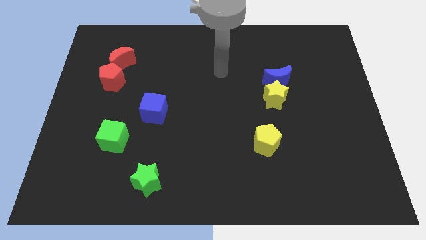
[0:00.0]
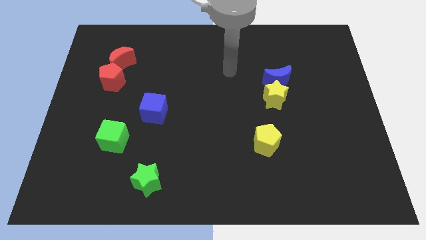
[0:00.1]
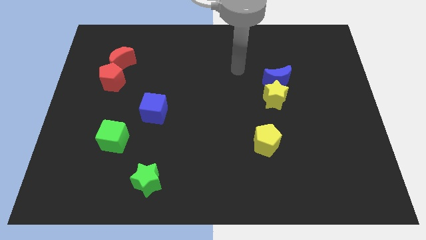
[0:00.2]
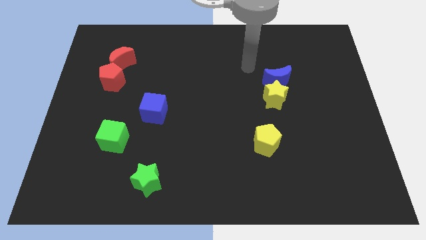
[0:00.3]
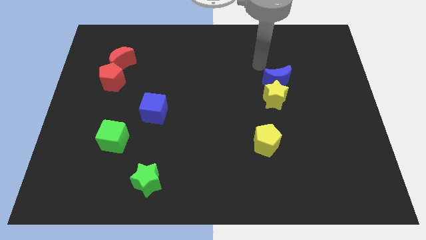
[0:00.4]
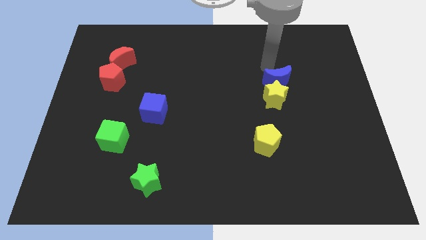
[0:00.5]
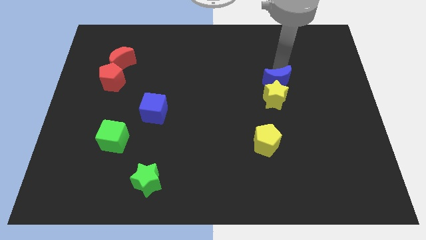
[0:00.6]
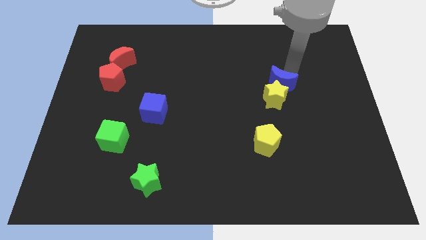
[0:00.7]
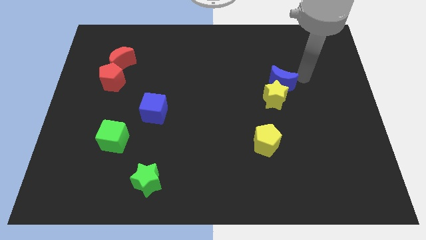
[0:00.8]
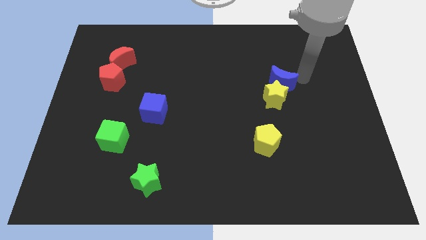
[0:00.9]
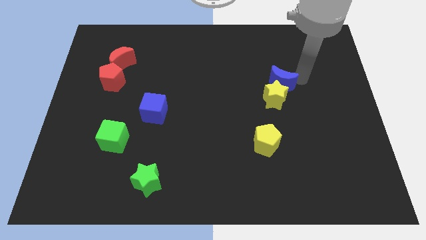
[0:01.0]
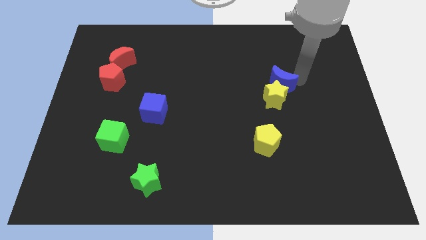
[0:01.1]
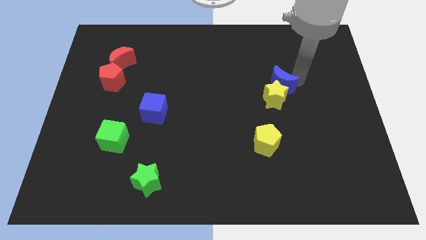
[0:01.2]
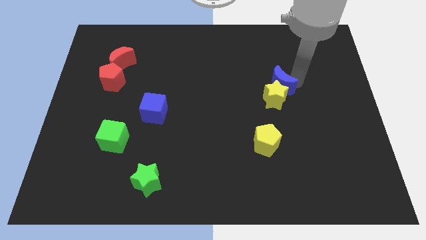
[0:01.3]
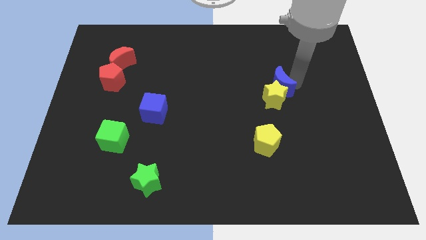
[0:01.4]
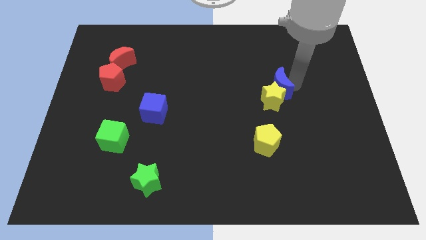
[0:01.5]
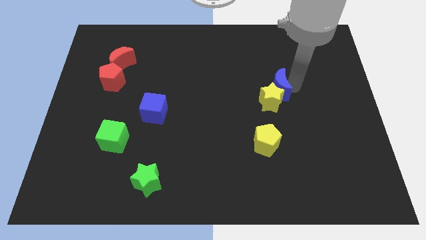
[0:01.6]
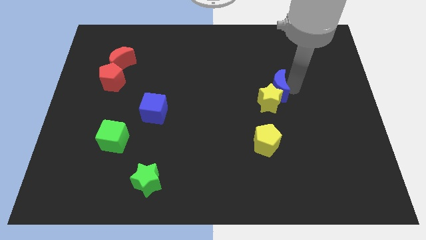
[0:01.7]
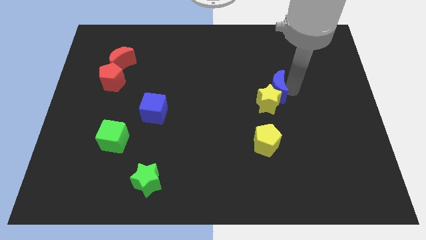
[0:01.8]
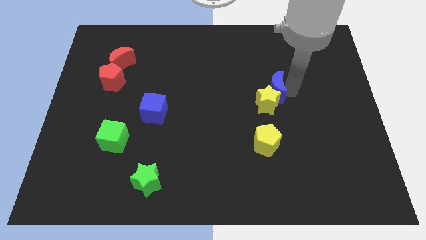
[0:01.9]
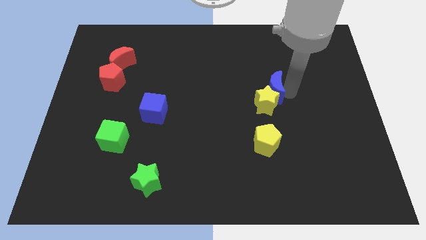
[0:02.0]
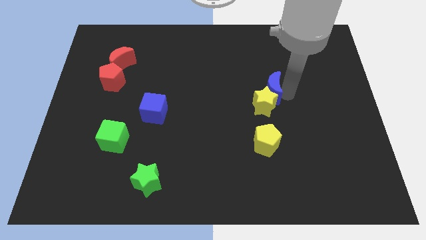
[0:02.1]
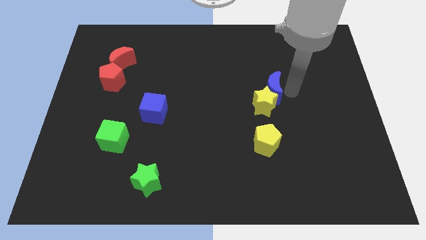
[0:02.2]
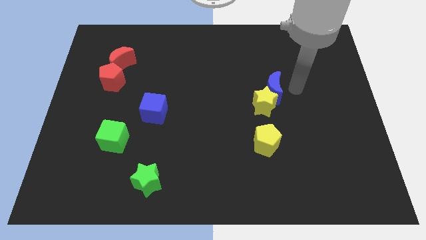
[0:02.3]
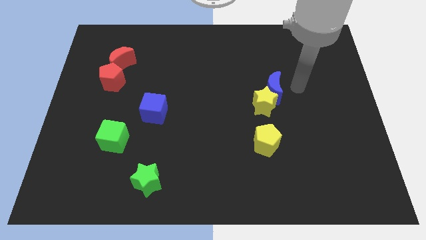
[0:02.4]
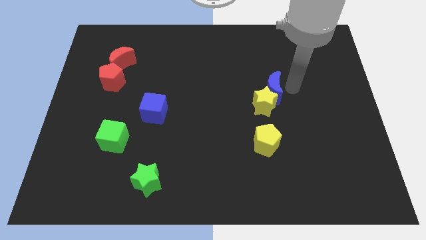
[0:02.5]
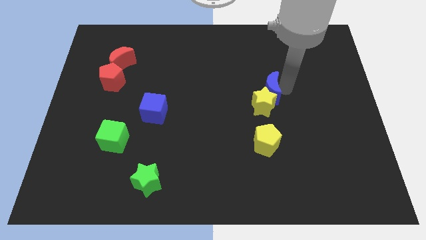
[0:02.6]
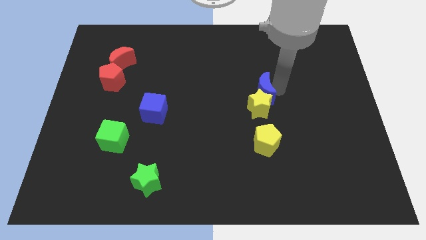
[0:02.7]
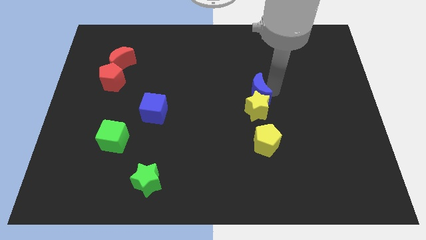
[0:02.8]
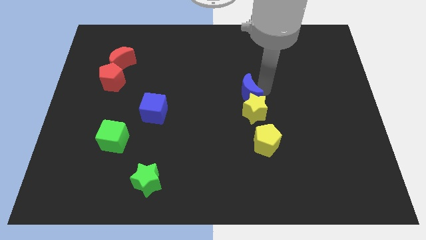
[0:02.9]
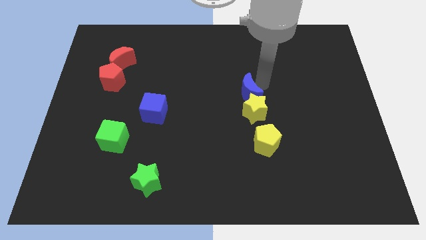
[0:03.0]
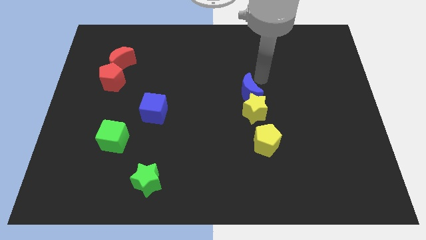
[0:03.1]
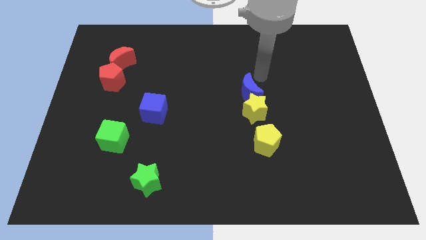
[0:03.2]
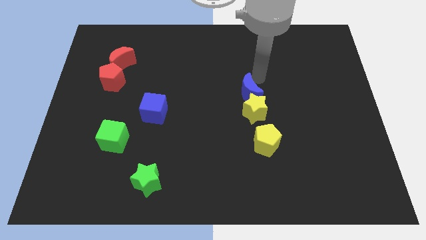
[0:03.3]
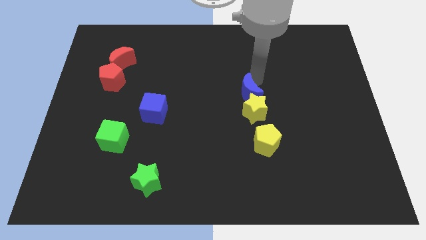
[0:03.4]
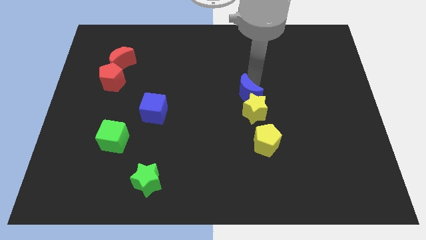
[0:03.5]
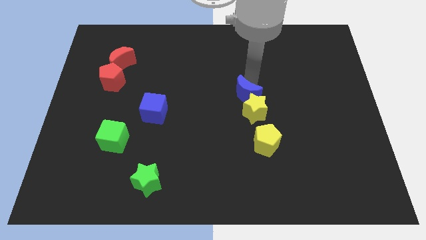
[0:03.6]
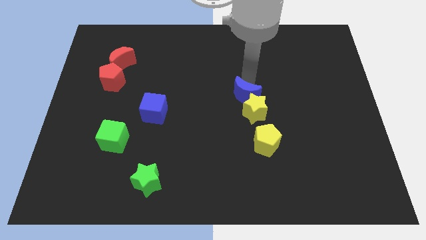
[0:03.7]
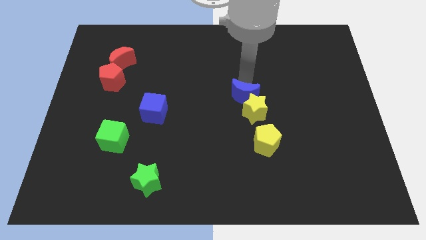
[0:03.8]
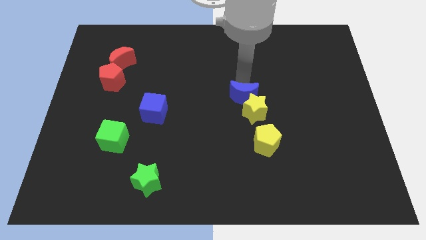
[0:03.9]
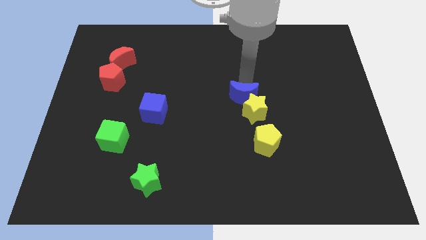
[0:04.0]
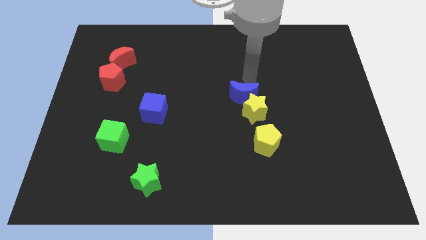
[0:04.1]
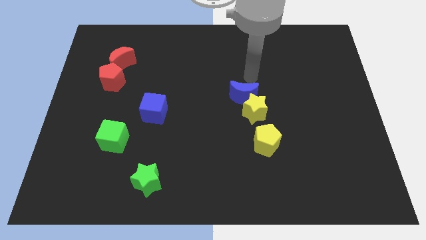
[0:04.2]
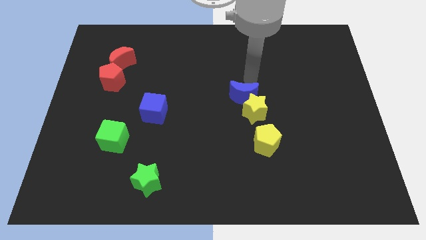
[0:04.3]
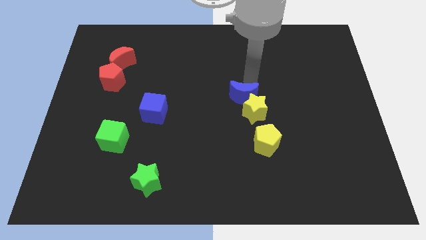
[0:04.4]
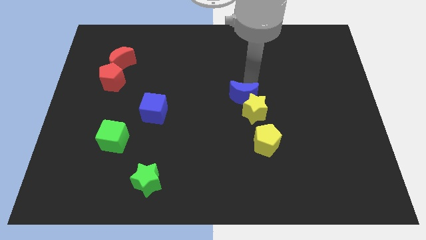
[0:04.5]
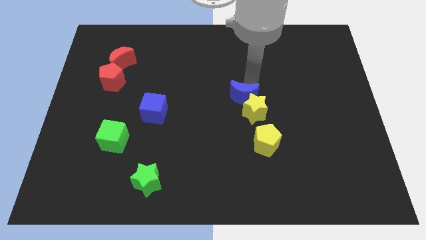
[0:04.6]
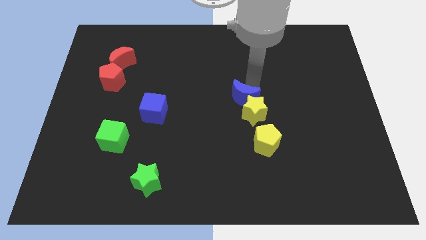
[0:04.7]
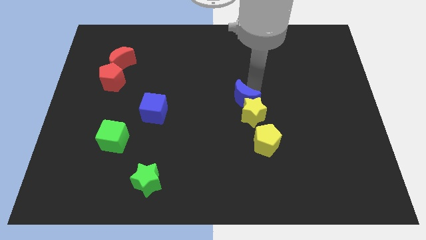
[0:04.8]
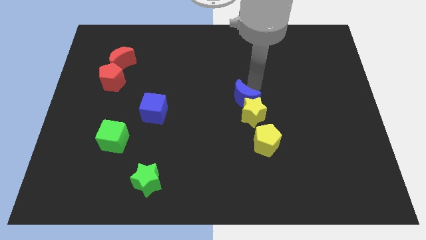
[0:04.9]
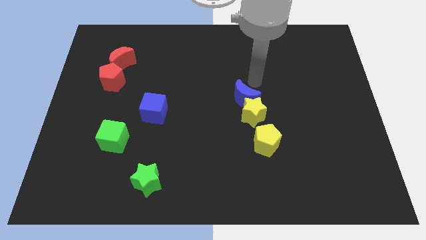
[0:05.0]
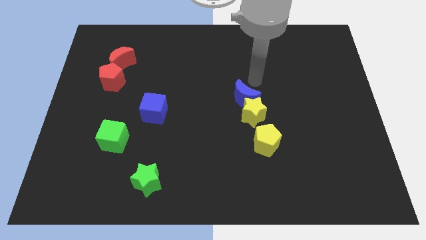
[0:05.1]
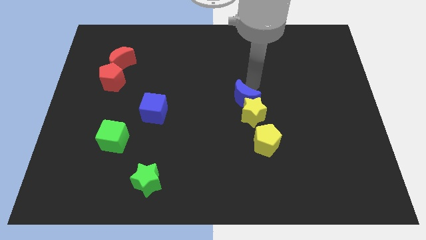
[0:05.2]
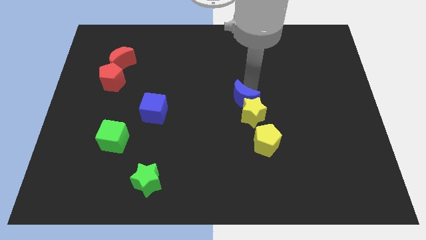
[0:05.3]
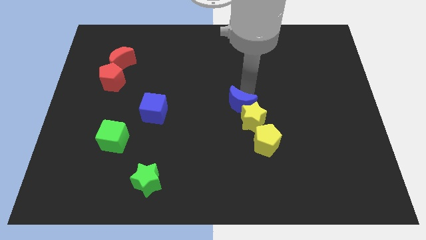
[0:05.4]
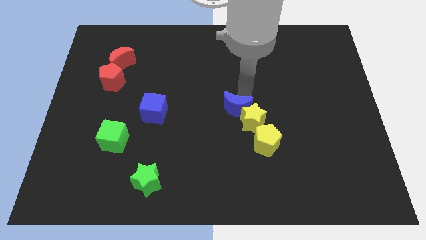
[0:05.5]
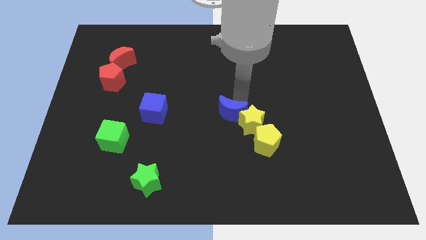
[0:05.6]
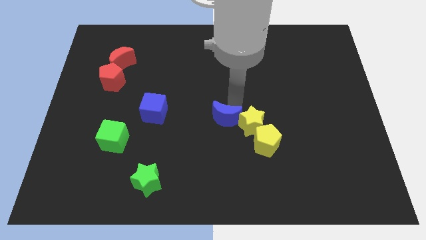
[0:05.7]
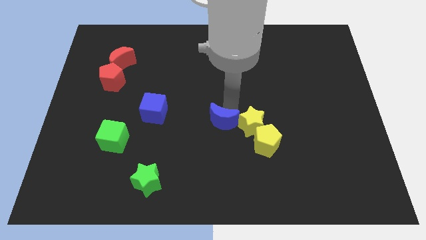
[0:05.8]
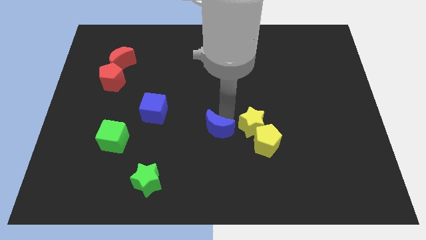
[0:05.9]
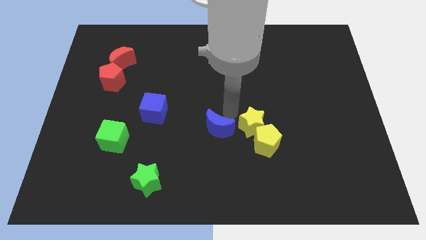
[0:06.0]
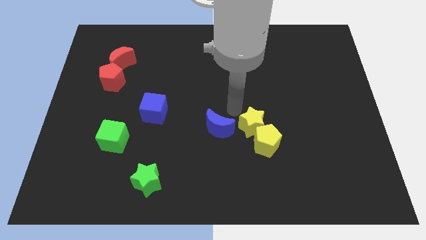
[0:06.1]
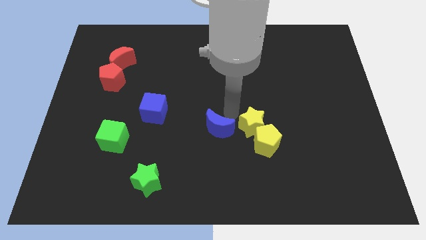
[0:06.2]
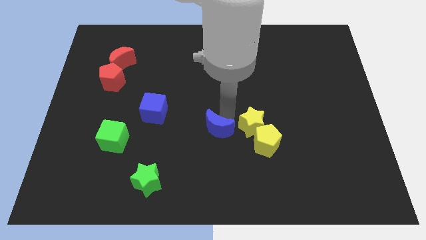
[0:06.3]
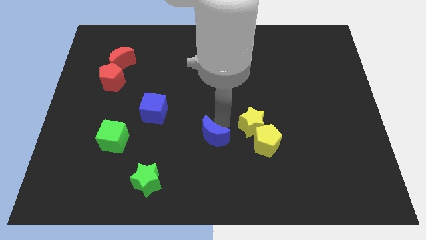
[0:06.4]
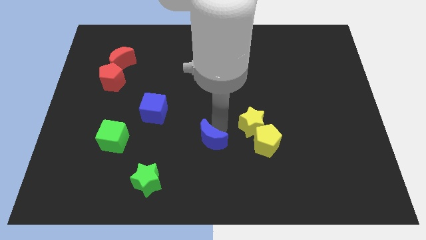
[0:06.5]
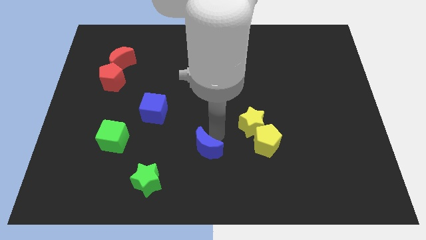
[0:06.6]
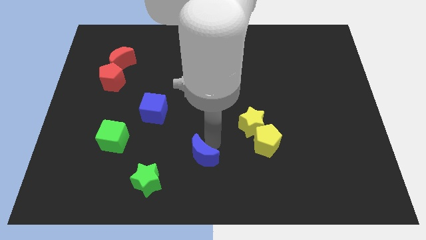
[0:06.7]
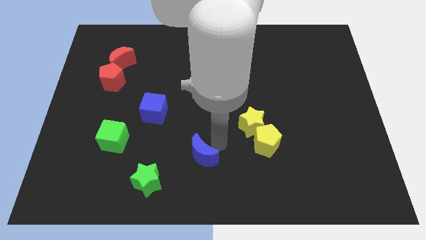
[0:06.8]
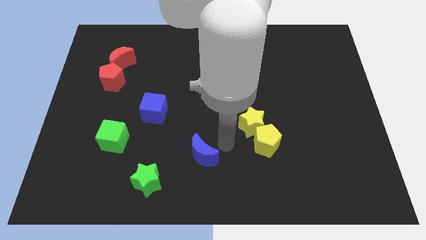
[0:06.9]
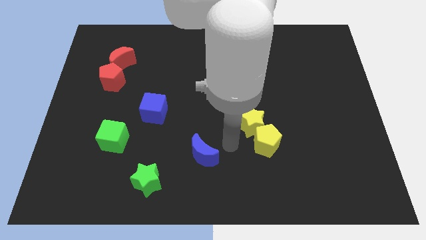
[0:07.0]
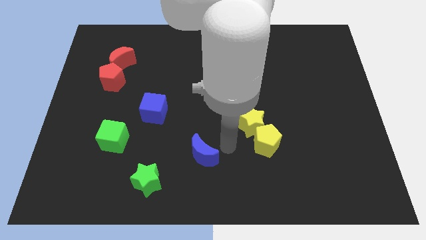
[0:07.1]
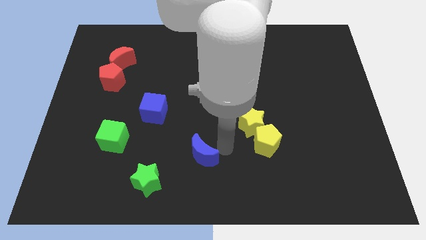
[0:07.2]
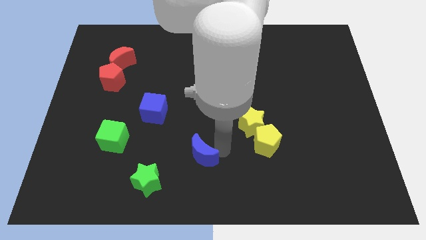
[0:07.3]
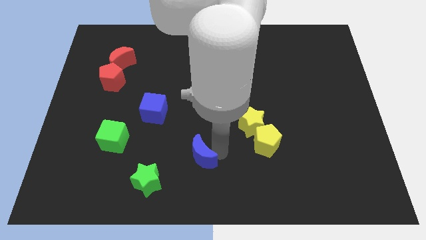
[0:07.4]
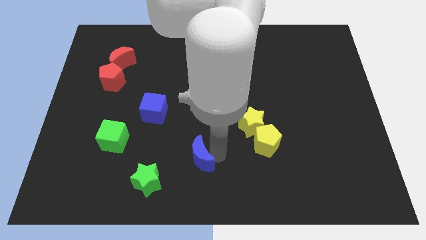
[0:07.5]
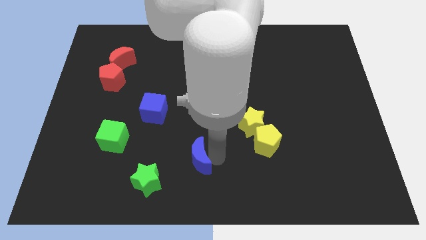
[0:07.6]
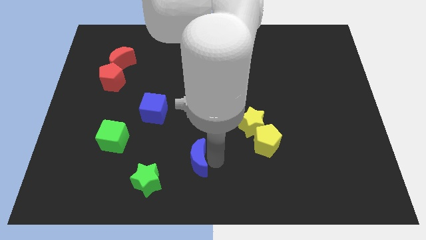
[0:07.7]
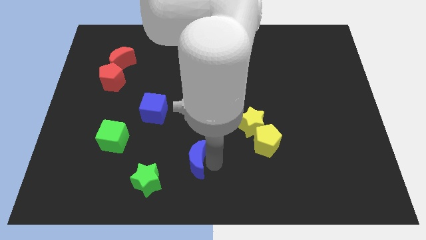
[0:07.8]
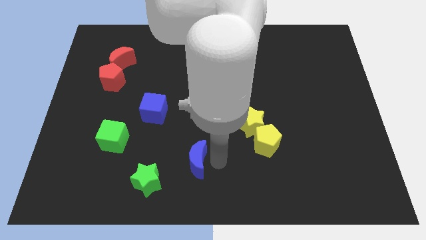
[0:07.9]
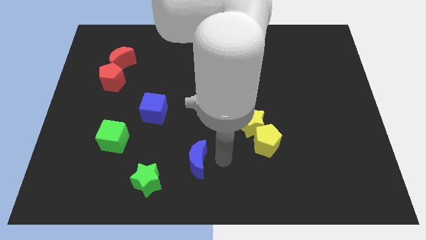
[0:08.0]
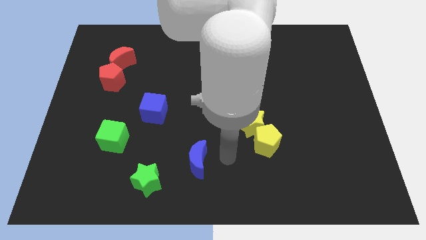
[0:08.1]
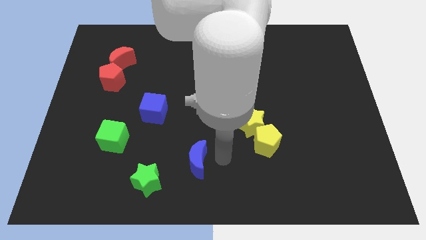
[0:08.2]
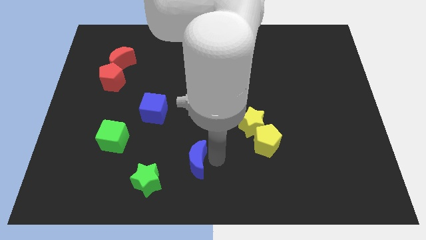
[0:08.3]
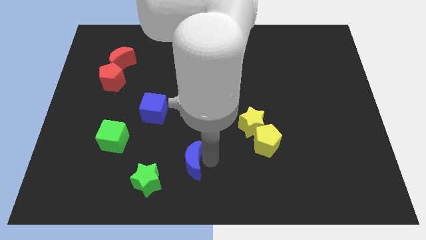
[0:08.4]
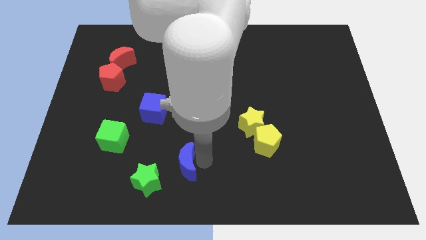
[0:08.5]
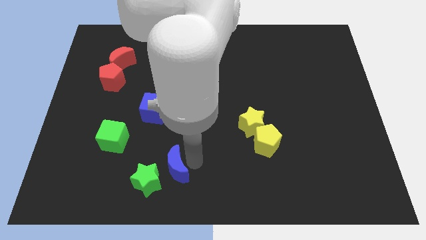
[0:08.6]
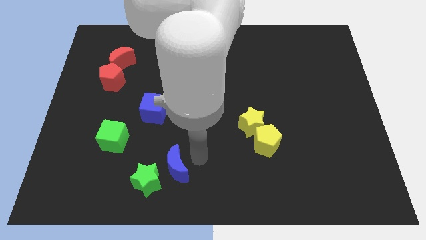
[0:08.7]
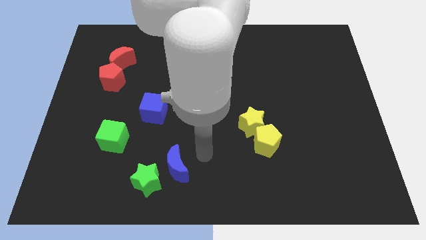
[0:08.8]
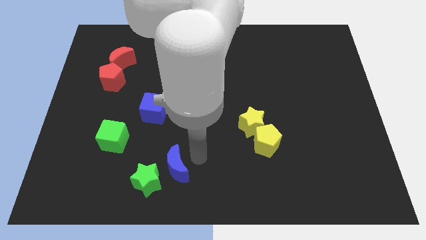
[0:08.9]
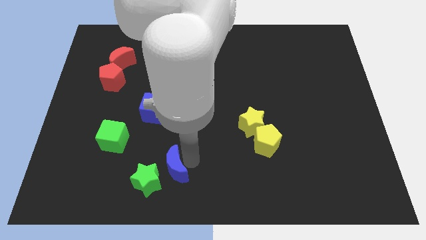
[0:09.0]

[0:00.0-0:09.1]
push the blue moon to the green star
